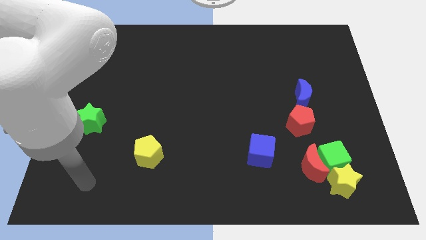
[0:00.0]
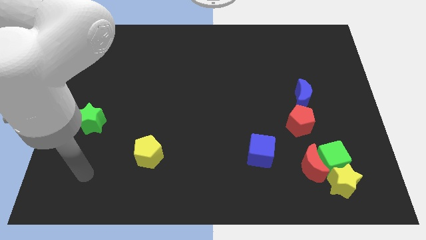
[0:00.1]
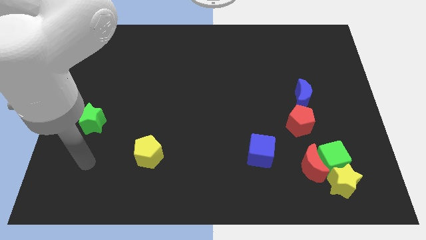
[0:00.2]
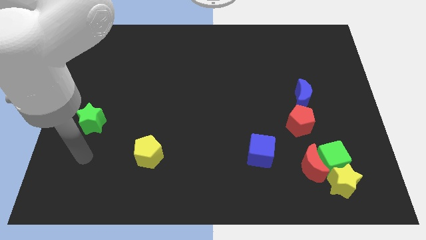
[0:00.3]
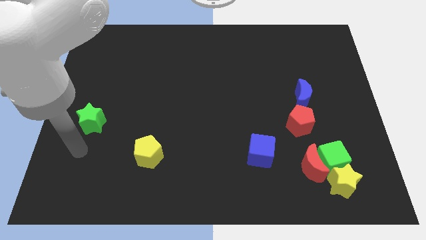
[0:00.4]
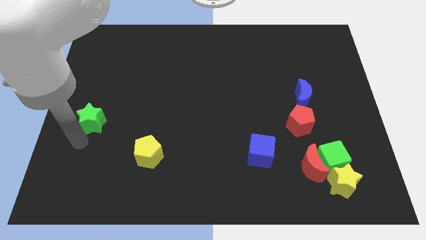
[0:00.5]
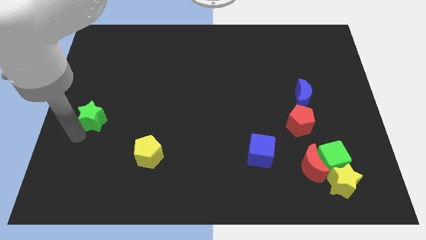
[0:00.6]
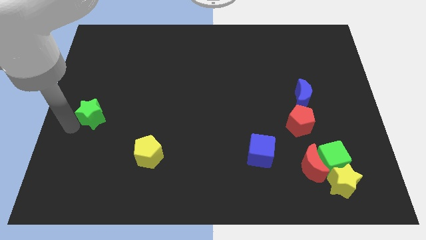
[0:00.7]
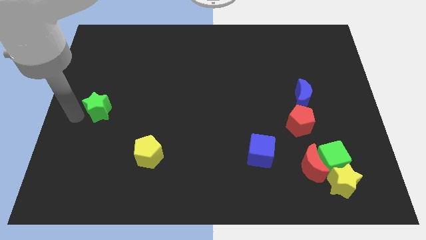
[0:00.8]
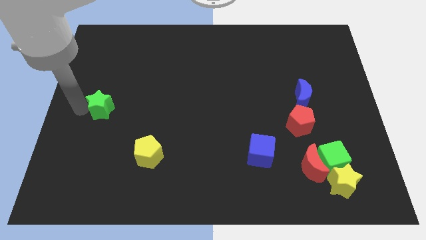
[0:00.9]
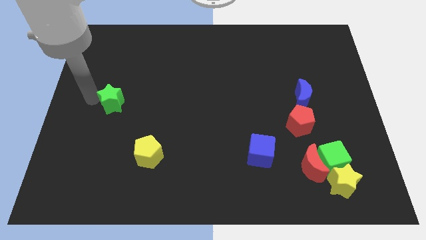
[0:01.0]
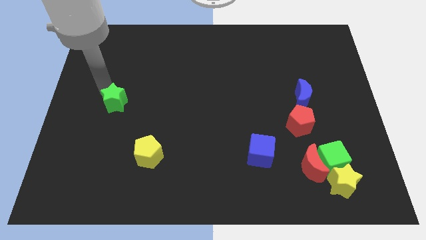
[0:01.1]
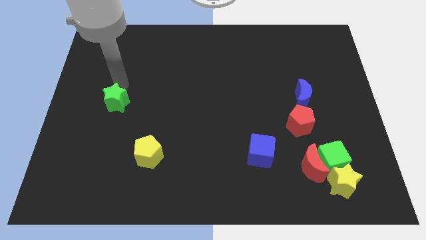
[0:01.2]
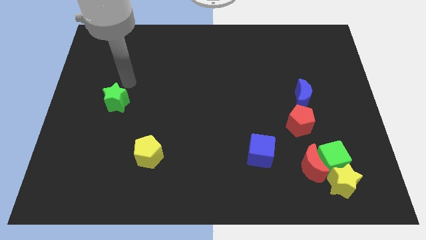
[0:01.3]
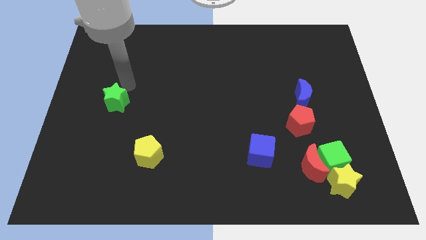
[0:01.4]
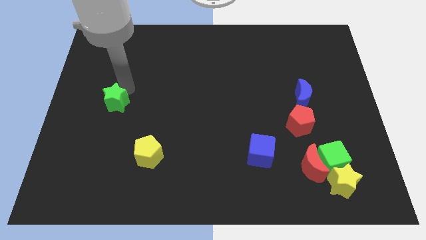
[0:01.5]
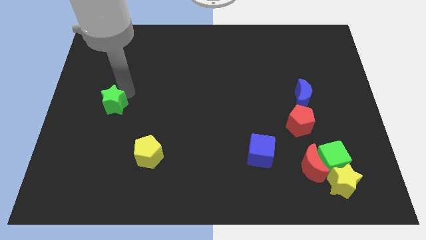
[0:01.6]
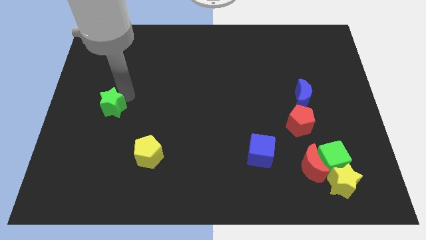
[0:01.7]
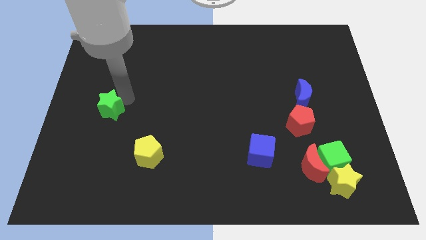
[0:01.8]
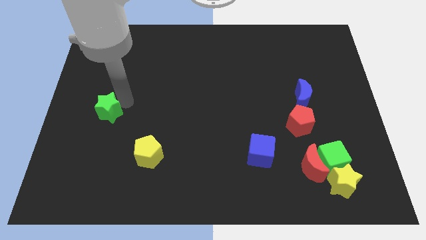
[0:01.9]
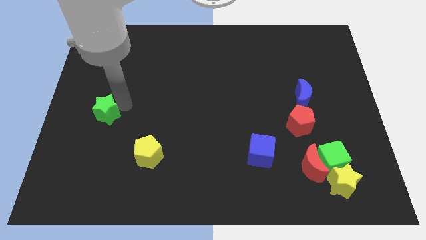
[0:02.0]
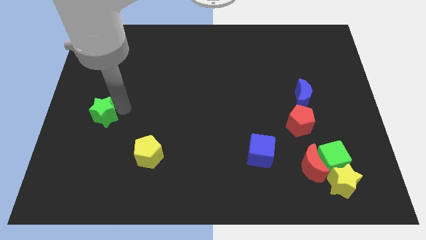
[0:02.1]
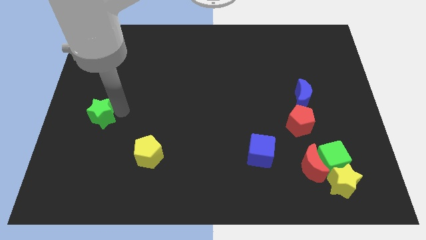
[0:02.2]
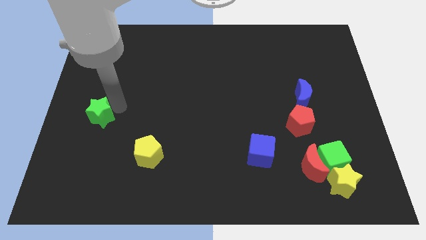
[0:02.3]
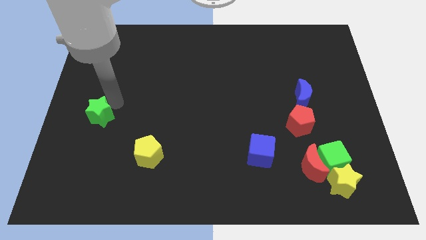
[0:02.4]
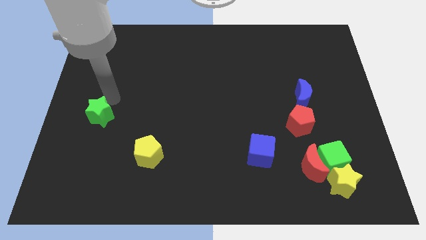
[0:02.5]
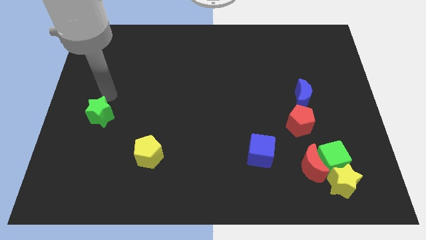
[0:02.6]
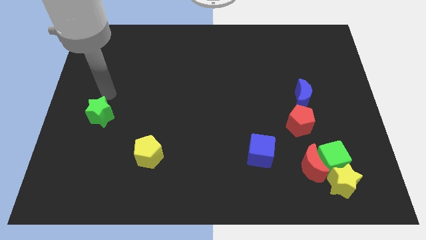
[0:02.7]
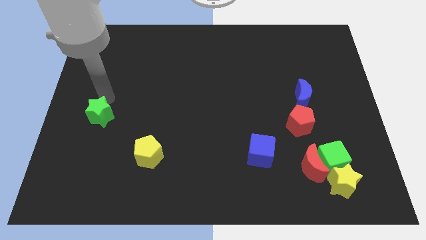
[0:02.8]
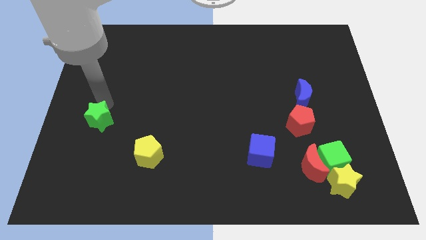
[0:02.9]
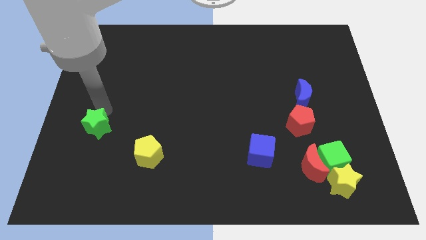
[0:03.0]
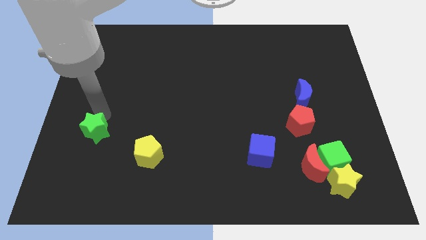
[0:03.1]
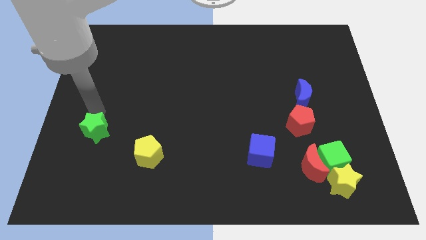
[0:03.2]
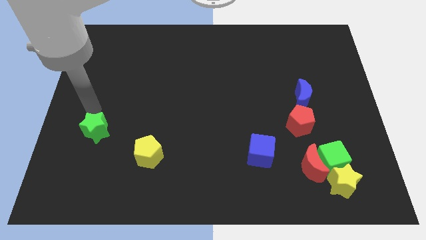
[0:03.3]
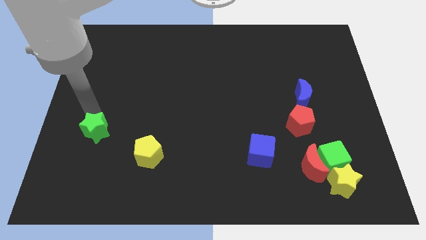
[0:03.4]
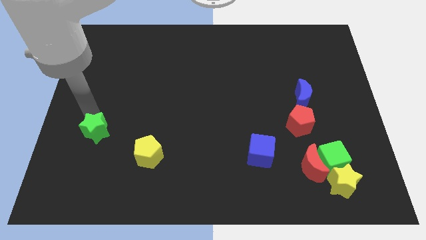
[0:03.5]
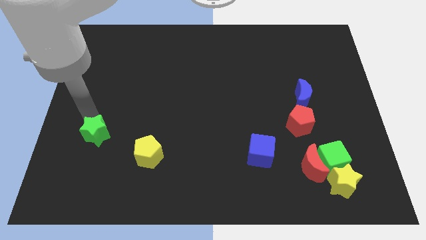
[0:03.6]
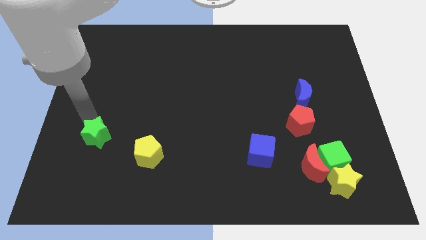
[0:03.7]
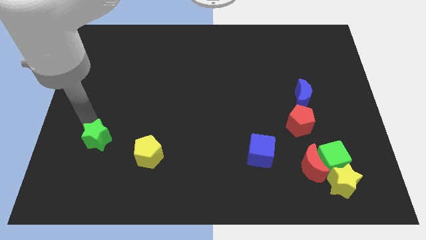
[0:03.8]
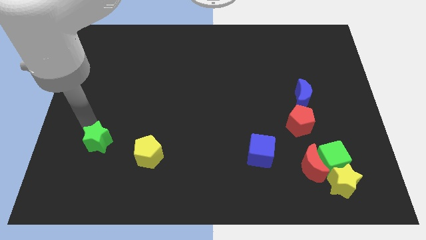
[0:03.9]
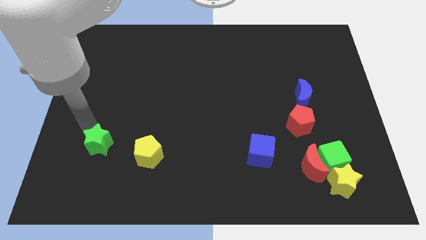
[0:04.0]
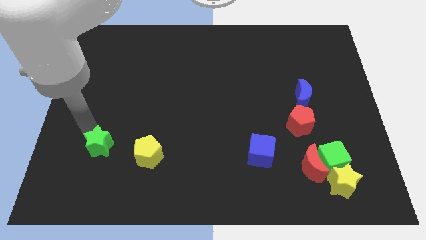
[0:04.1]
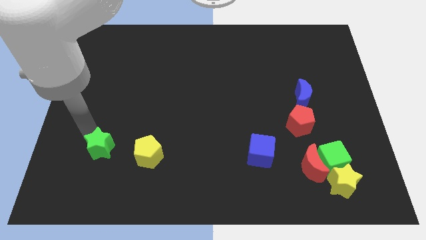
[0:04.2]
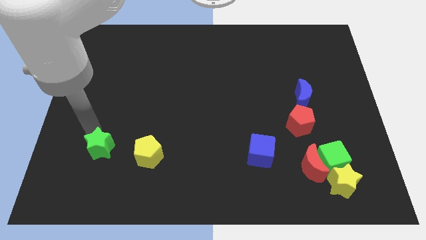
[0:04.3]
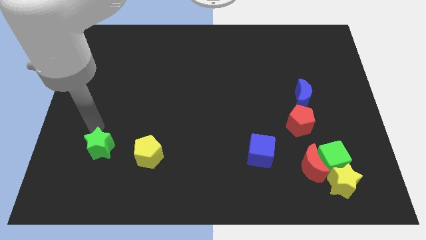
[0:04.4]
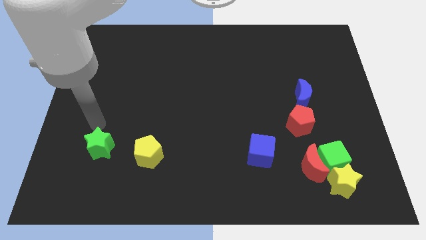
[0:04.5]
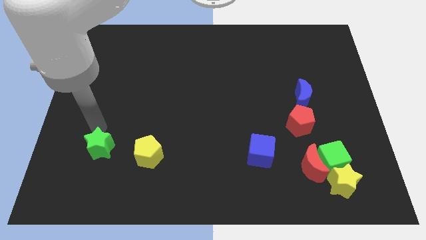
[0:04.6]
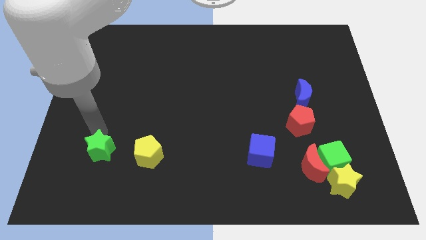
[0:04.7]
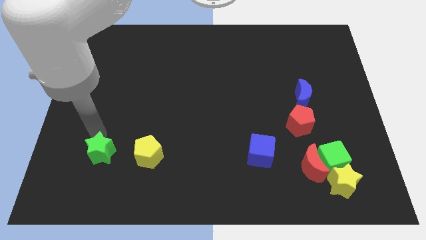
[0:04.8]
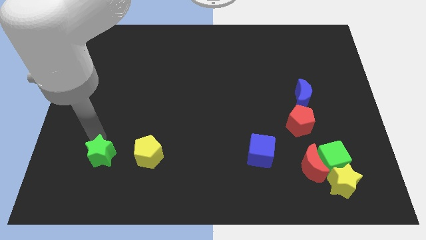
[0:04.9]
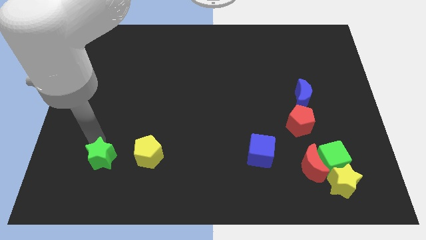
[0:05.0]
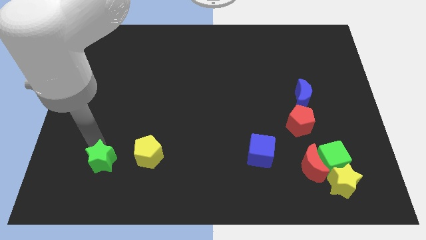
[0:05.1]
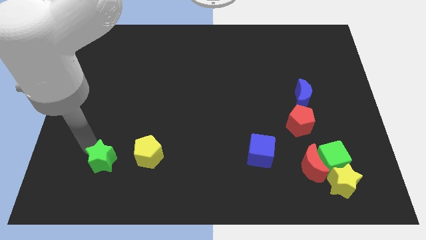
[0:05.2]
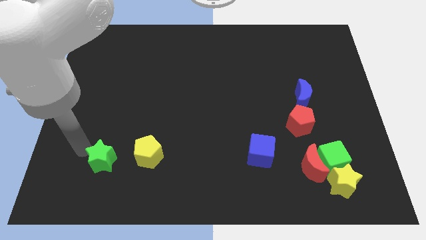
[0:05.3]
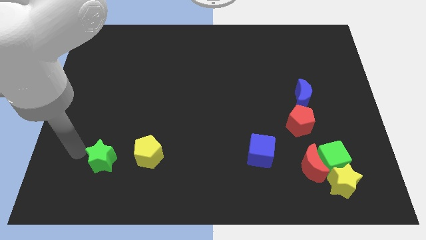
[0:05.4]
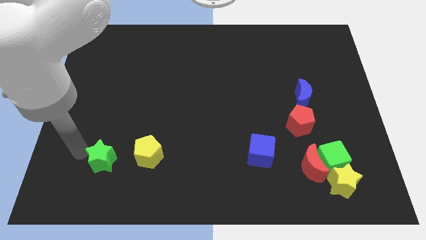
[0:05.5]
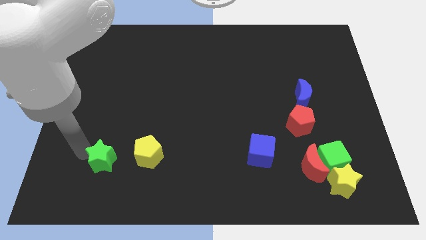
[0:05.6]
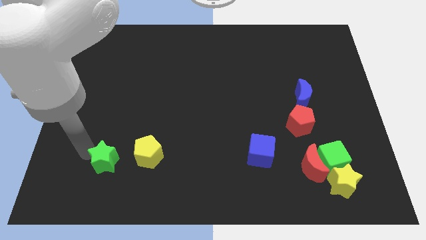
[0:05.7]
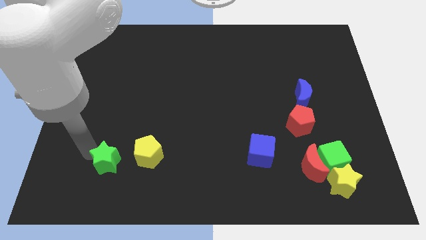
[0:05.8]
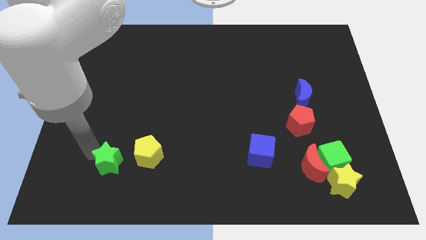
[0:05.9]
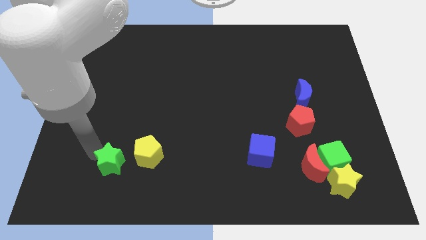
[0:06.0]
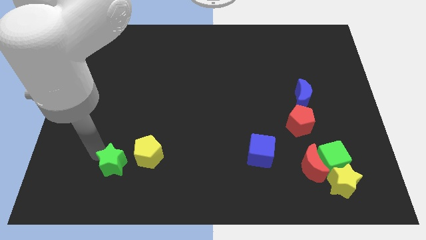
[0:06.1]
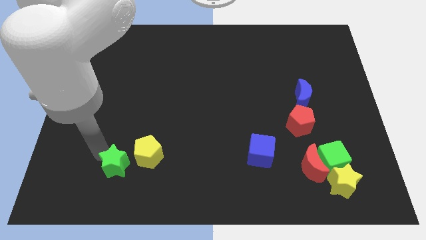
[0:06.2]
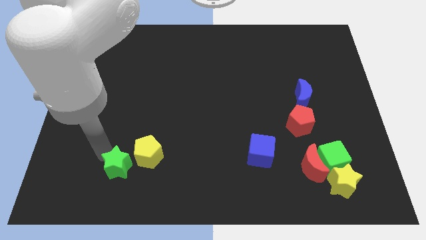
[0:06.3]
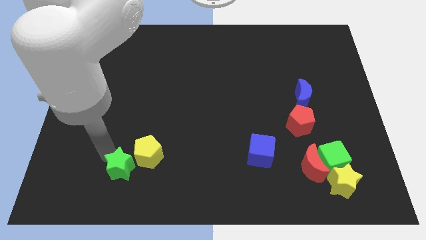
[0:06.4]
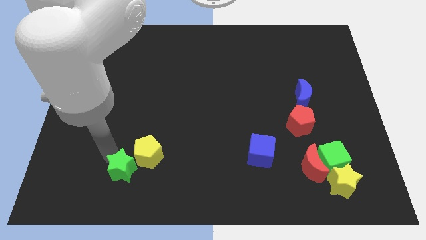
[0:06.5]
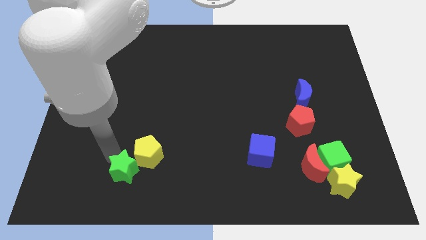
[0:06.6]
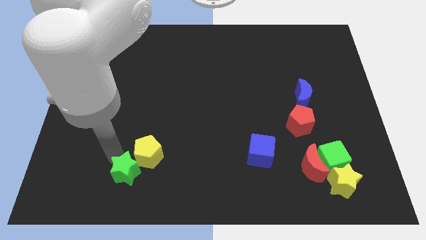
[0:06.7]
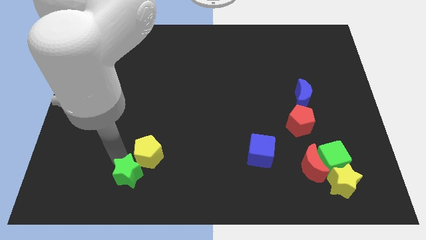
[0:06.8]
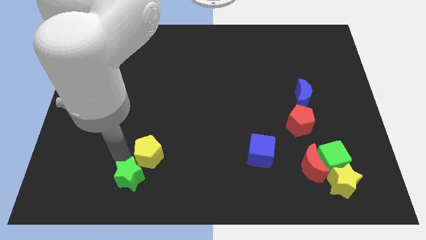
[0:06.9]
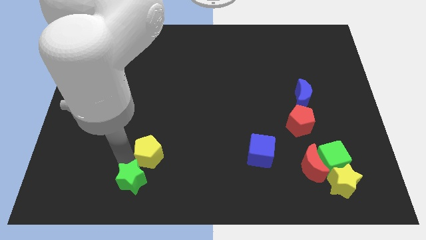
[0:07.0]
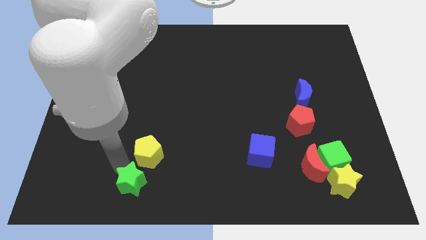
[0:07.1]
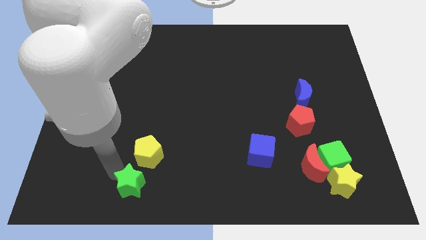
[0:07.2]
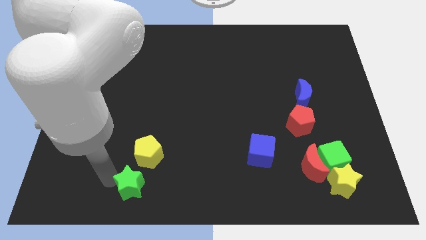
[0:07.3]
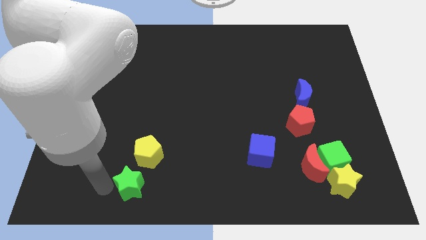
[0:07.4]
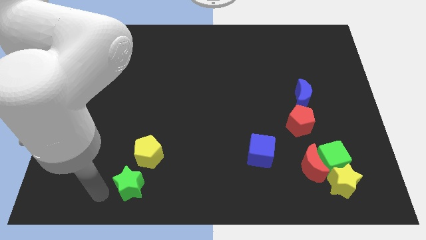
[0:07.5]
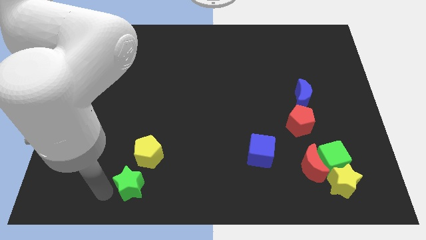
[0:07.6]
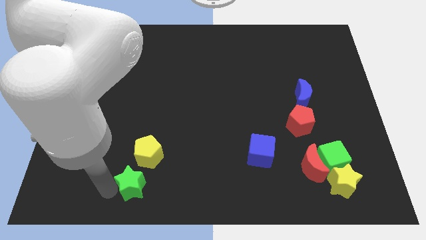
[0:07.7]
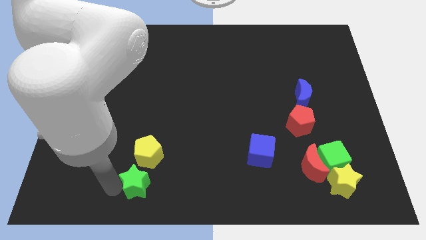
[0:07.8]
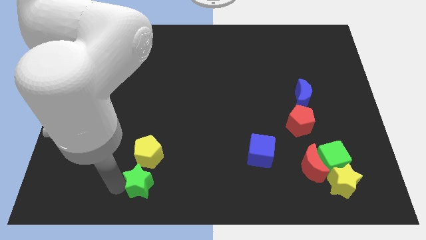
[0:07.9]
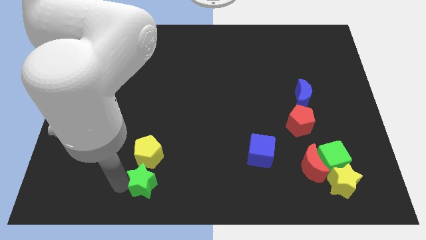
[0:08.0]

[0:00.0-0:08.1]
put the green star to the bottom right side of the yellow pentagon

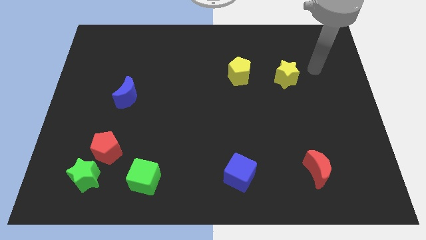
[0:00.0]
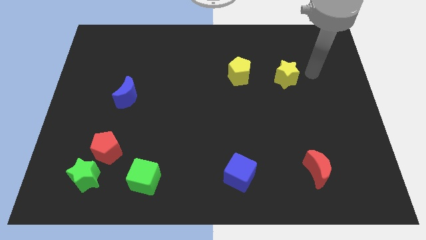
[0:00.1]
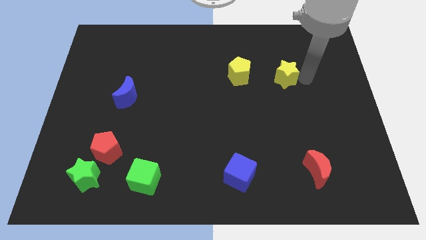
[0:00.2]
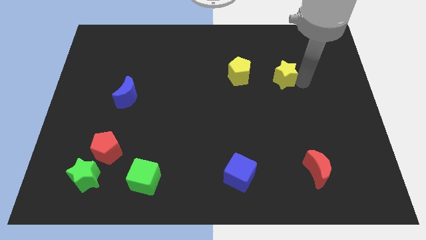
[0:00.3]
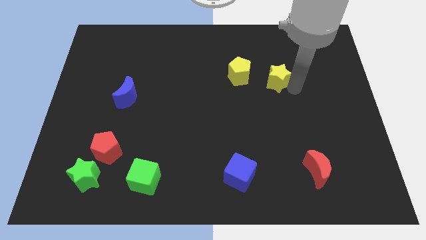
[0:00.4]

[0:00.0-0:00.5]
push the yellow pentagon to the top left side of the yellow star
